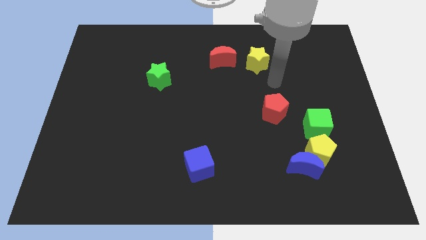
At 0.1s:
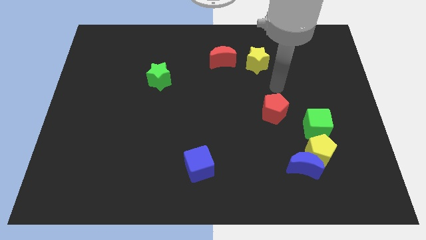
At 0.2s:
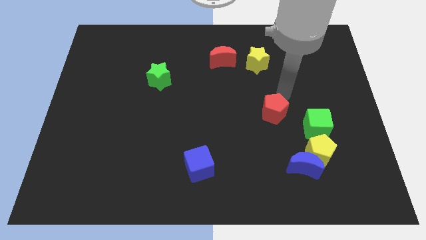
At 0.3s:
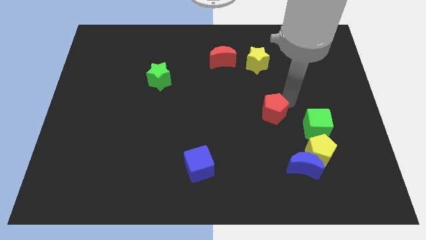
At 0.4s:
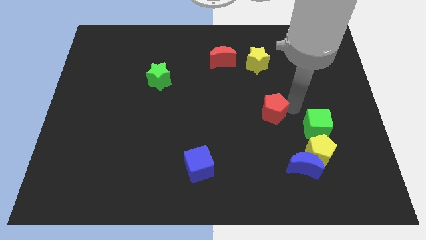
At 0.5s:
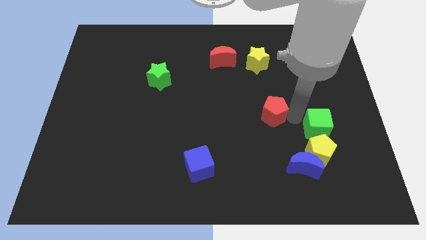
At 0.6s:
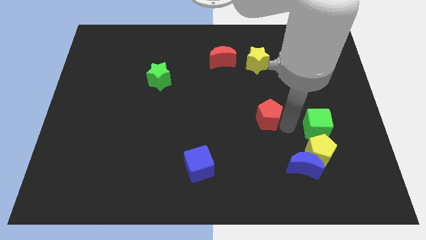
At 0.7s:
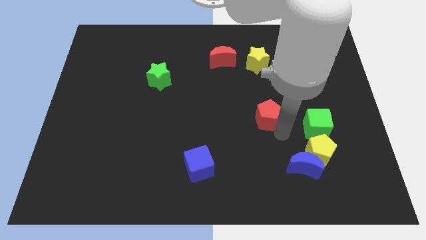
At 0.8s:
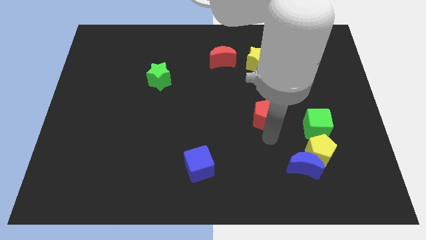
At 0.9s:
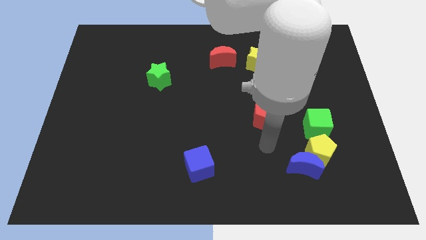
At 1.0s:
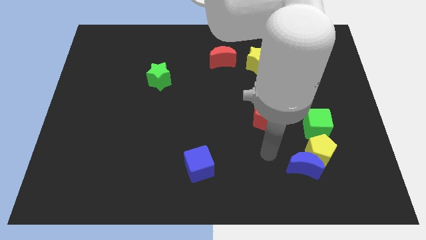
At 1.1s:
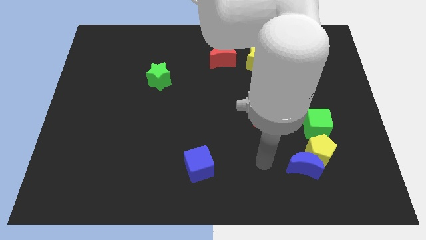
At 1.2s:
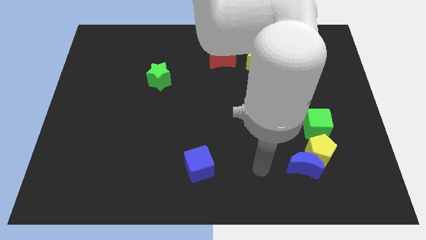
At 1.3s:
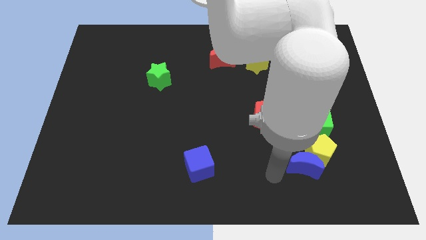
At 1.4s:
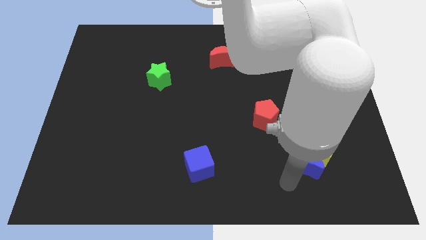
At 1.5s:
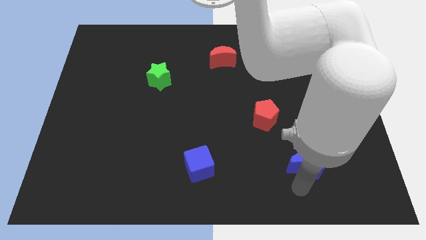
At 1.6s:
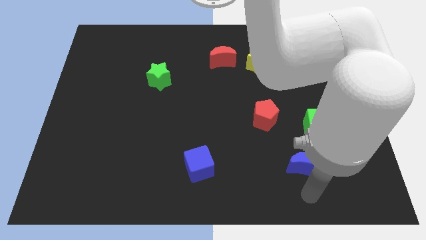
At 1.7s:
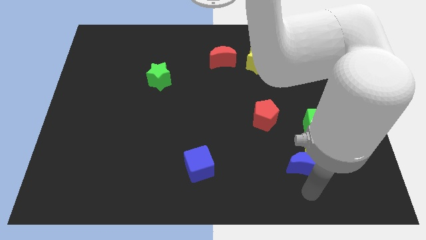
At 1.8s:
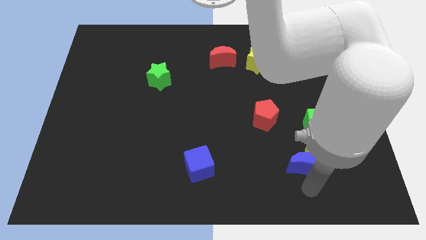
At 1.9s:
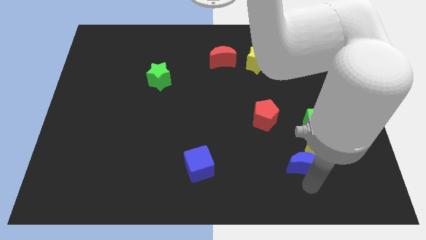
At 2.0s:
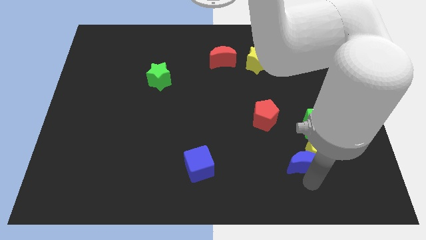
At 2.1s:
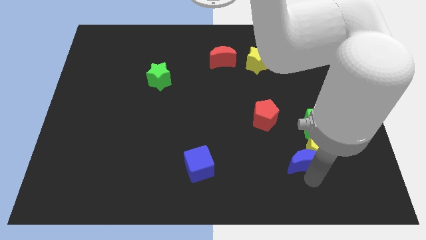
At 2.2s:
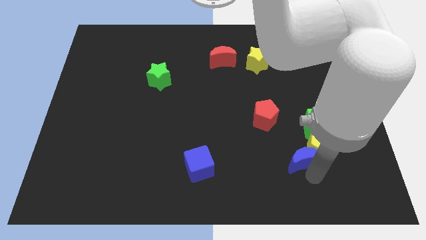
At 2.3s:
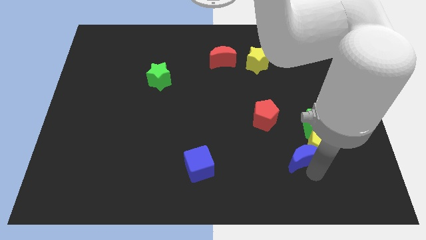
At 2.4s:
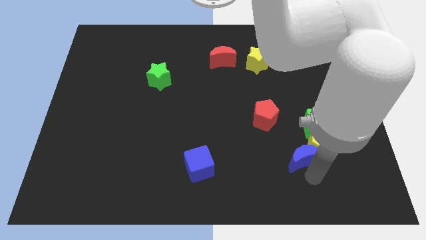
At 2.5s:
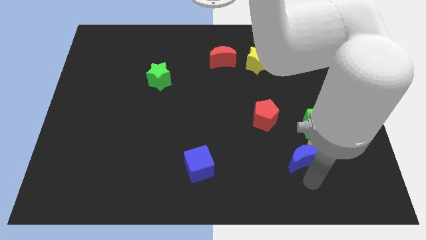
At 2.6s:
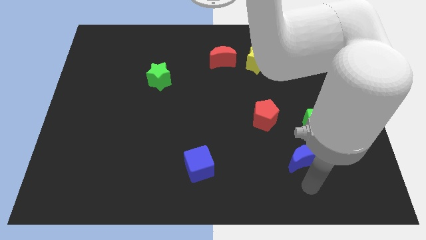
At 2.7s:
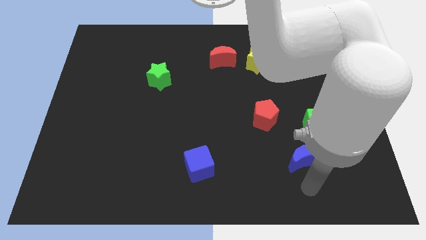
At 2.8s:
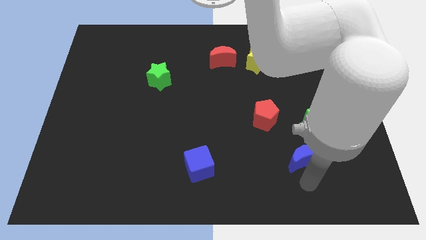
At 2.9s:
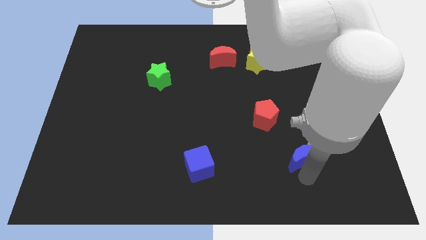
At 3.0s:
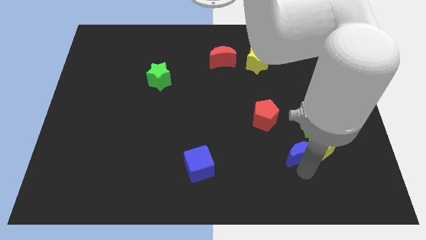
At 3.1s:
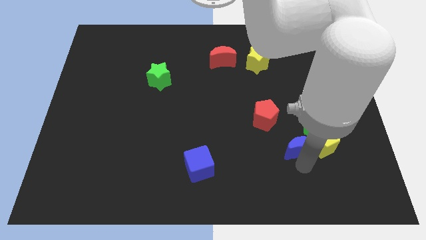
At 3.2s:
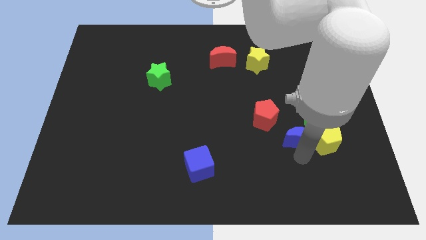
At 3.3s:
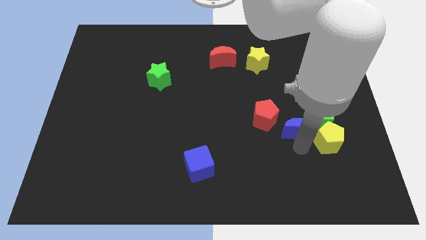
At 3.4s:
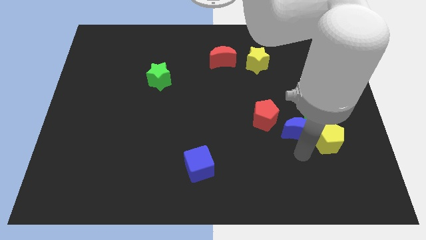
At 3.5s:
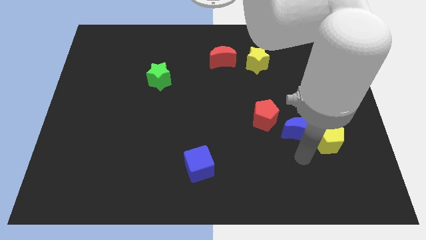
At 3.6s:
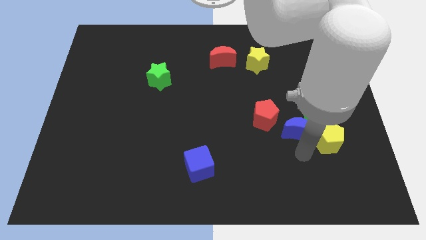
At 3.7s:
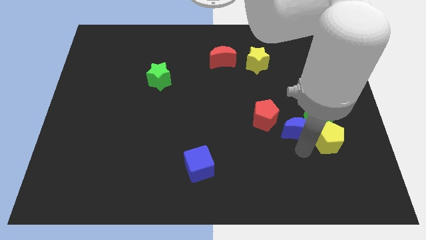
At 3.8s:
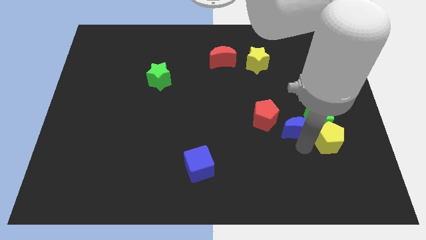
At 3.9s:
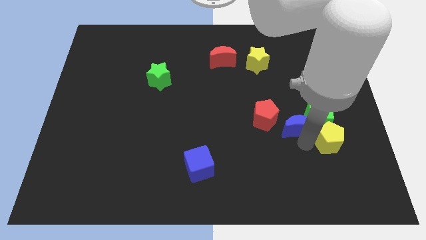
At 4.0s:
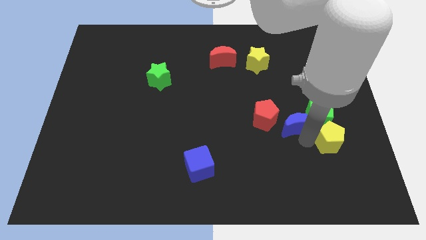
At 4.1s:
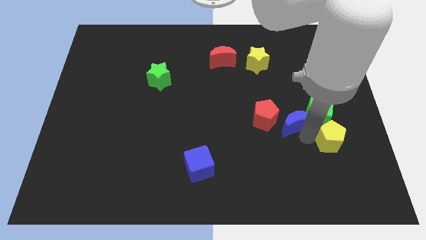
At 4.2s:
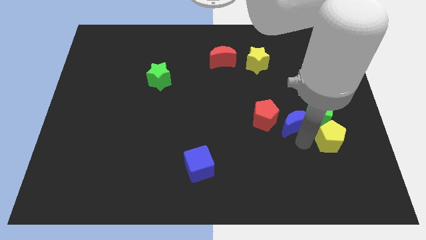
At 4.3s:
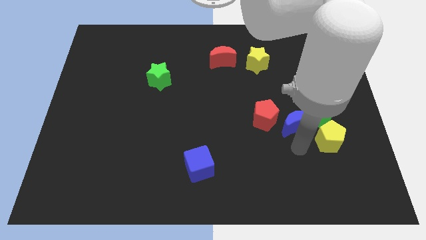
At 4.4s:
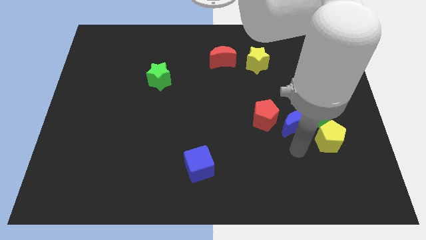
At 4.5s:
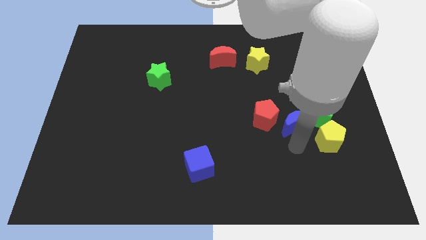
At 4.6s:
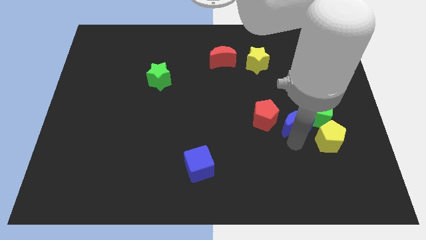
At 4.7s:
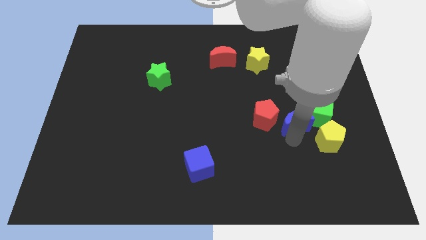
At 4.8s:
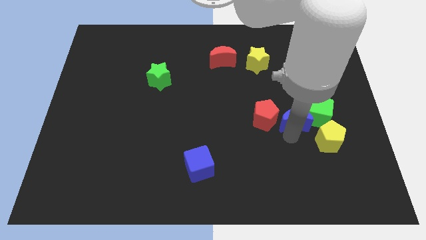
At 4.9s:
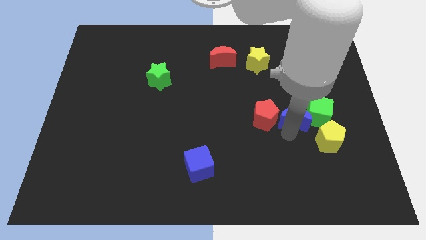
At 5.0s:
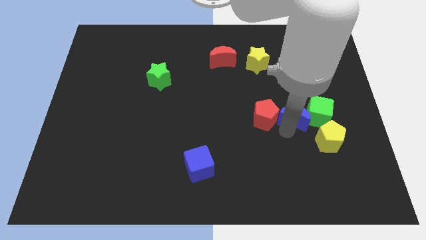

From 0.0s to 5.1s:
slide the blue moon to the top left of the green cube

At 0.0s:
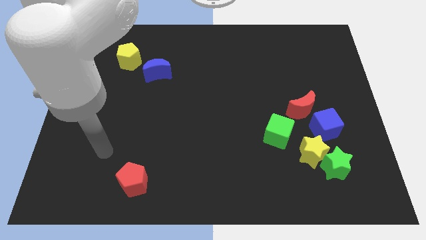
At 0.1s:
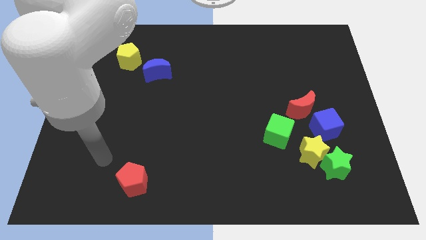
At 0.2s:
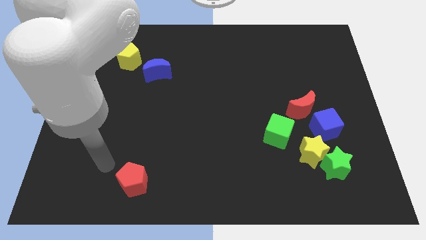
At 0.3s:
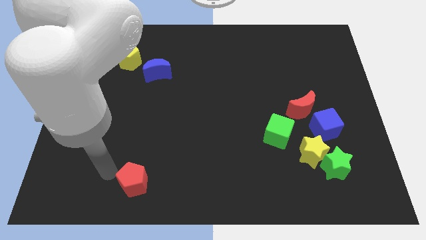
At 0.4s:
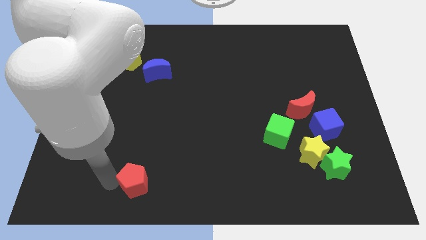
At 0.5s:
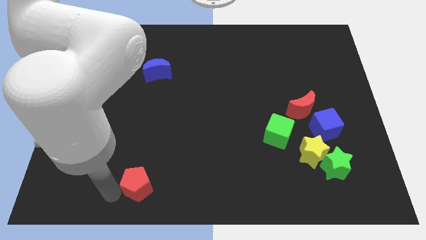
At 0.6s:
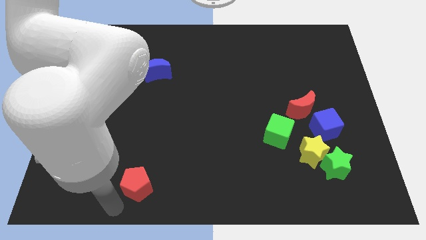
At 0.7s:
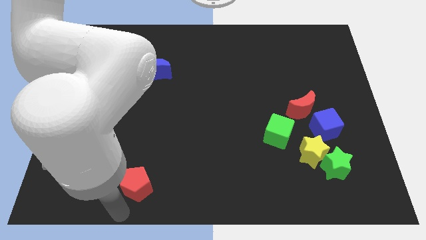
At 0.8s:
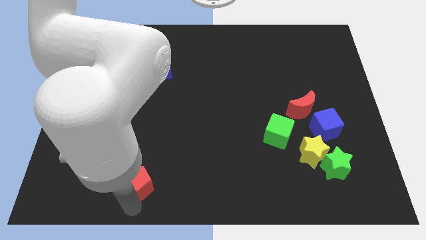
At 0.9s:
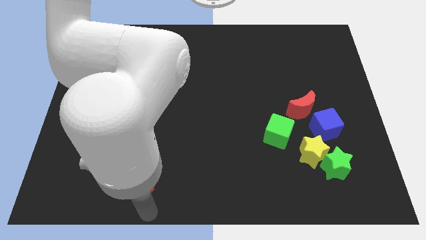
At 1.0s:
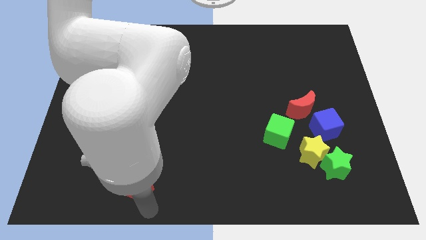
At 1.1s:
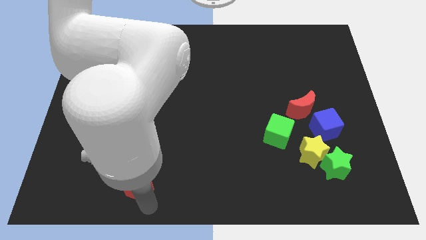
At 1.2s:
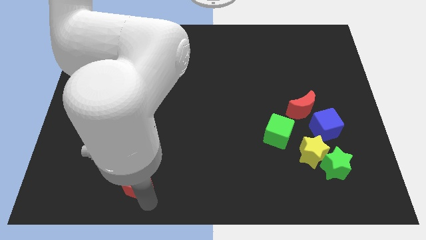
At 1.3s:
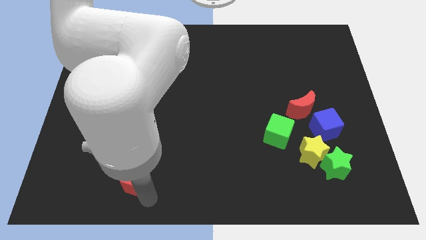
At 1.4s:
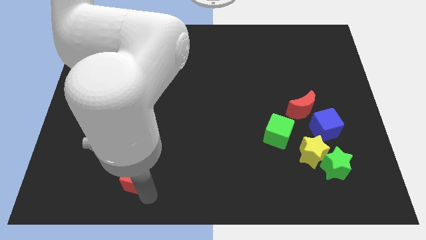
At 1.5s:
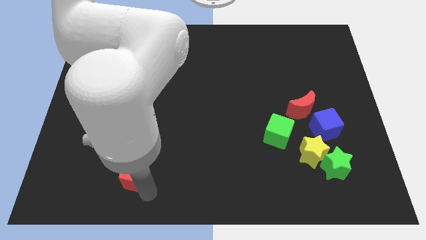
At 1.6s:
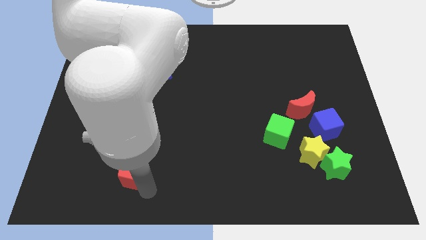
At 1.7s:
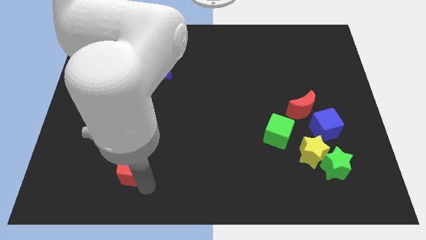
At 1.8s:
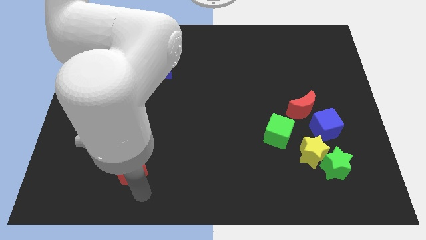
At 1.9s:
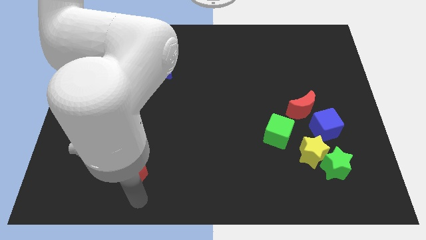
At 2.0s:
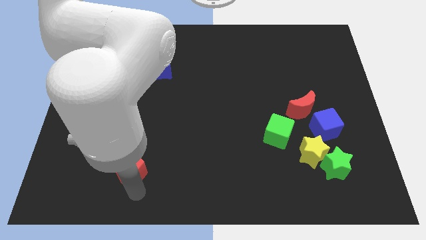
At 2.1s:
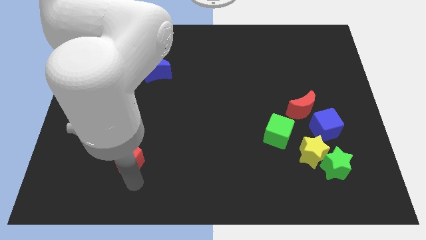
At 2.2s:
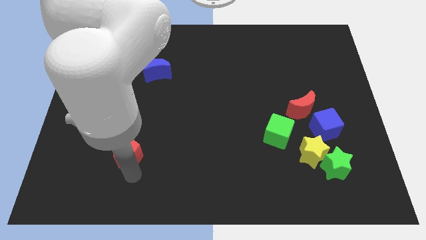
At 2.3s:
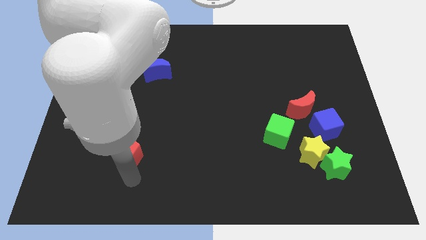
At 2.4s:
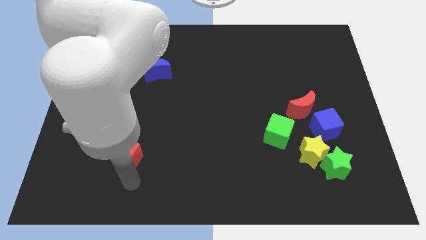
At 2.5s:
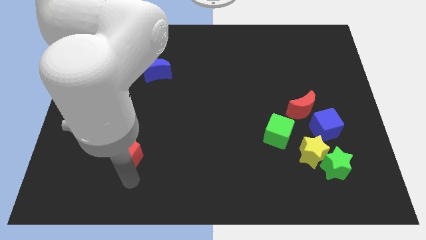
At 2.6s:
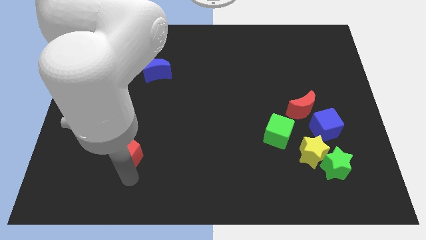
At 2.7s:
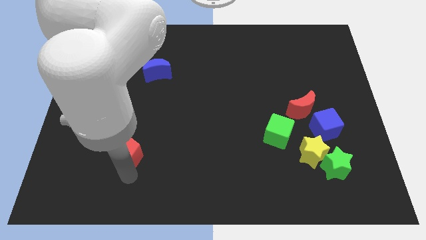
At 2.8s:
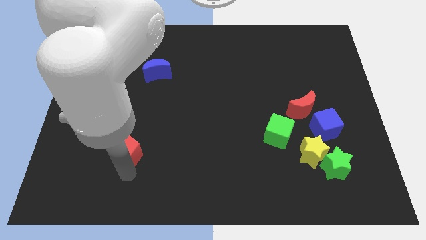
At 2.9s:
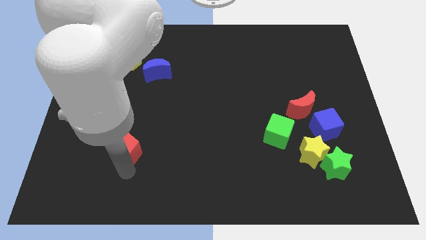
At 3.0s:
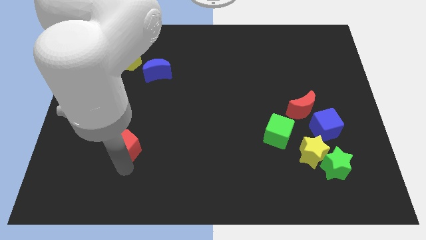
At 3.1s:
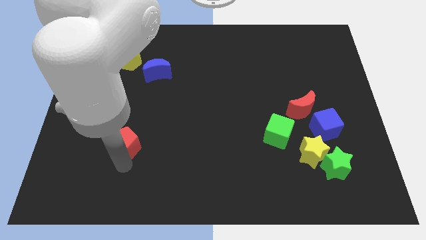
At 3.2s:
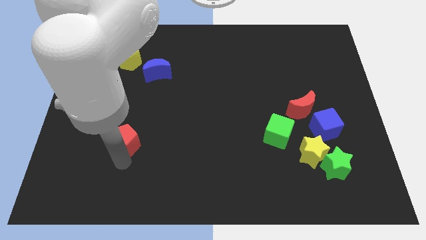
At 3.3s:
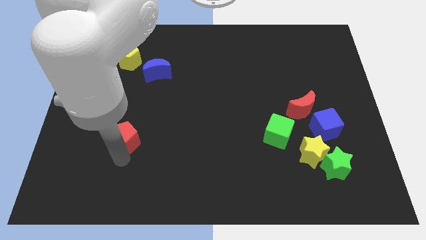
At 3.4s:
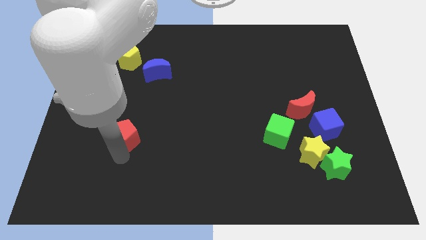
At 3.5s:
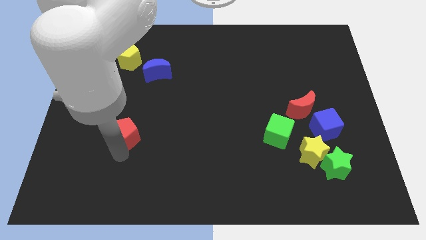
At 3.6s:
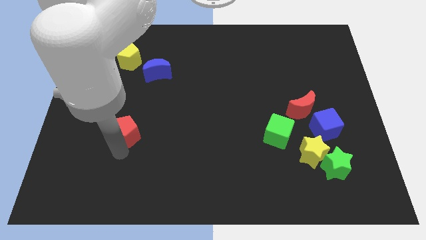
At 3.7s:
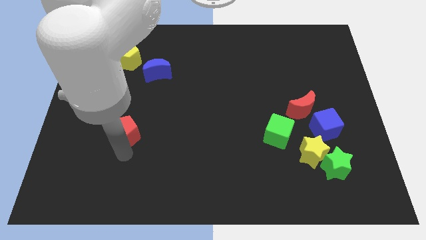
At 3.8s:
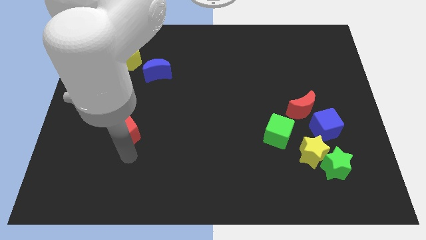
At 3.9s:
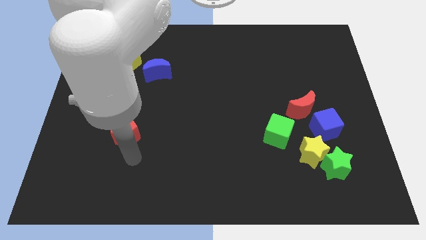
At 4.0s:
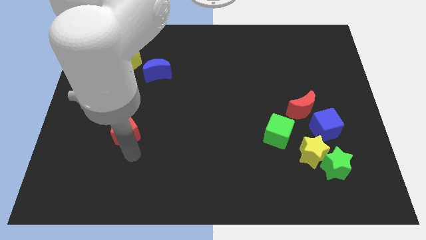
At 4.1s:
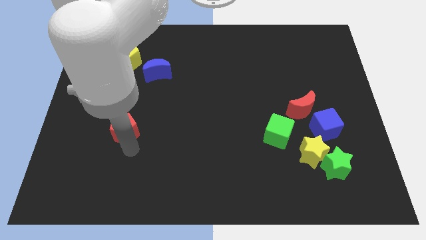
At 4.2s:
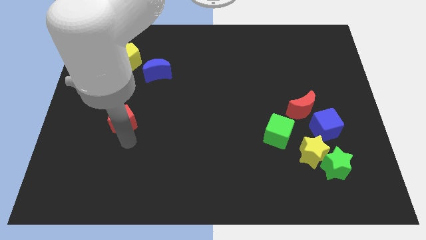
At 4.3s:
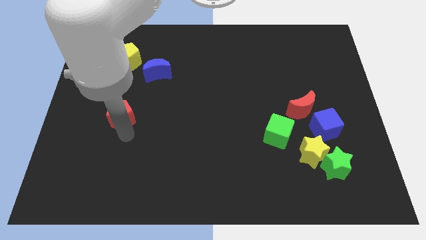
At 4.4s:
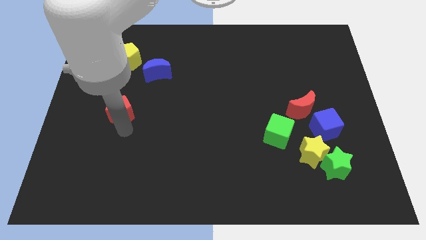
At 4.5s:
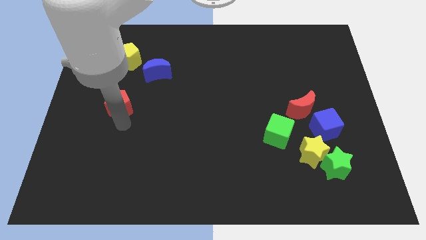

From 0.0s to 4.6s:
move the red pentagon to the bottom of the yellow pentagon
